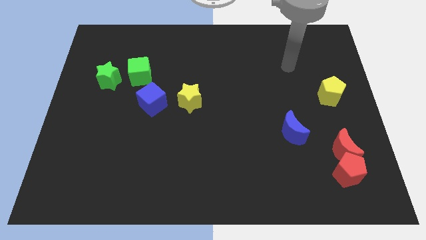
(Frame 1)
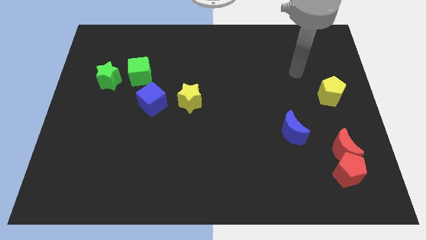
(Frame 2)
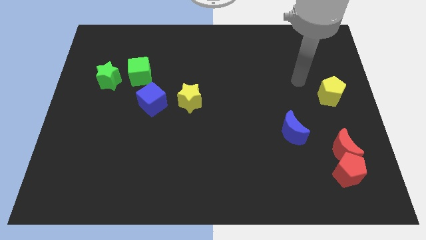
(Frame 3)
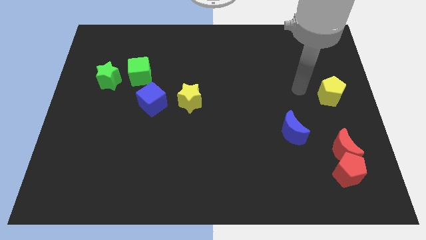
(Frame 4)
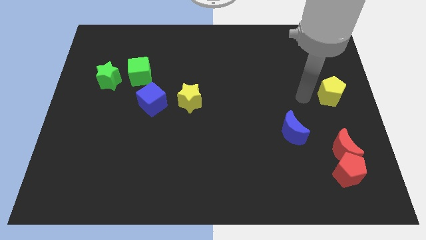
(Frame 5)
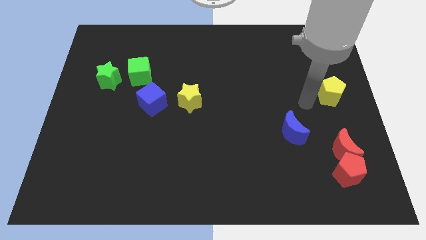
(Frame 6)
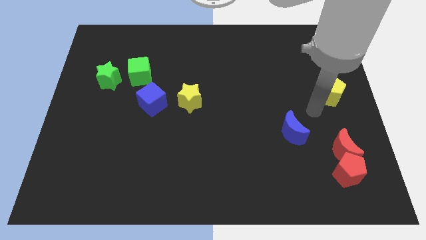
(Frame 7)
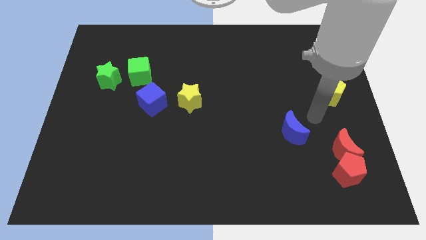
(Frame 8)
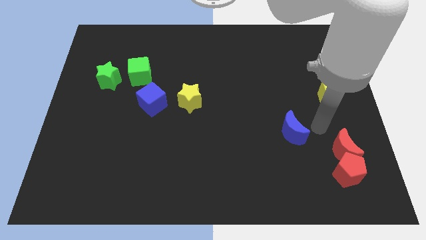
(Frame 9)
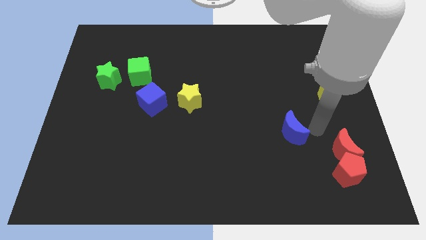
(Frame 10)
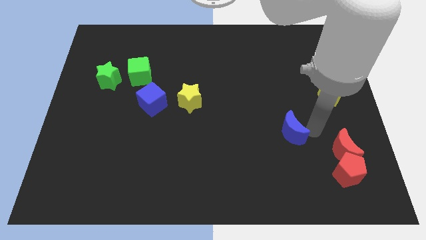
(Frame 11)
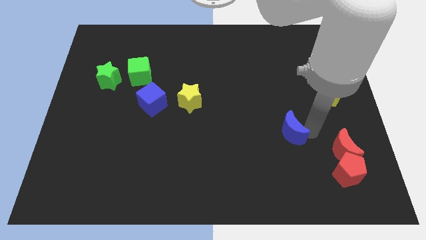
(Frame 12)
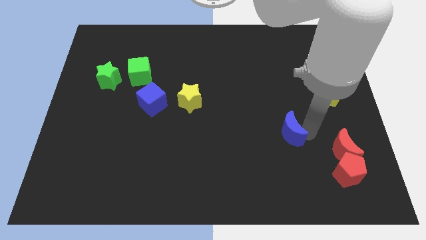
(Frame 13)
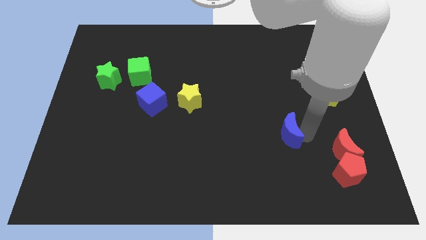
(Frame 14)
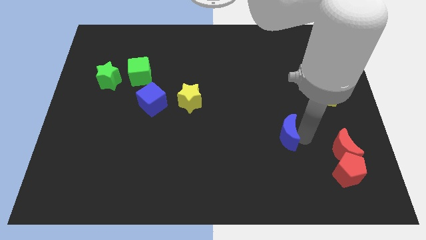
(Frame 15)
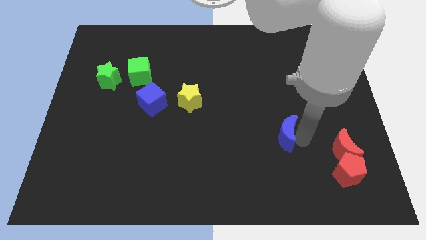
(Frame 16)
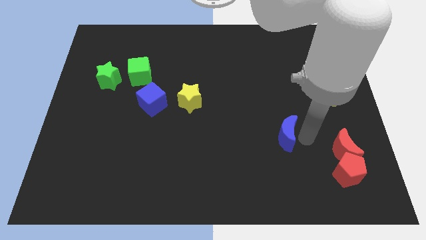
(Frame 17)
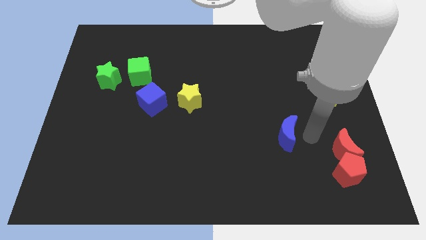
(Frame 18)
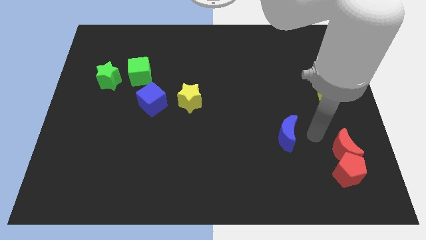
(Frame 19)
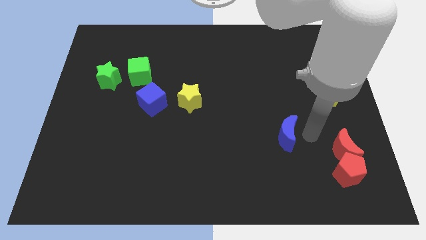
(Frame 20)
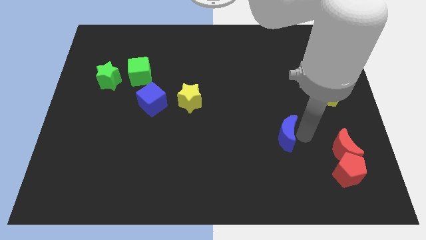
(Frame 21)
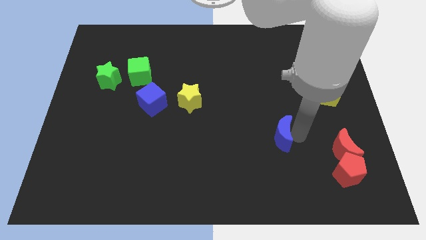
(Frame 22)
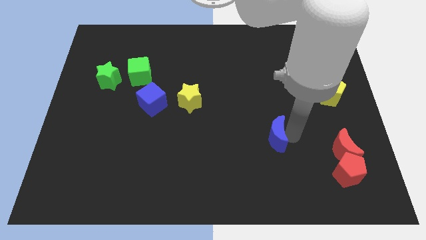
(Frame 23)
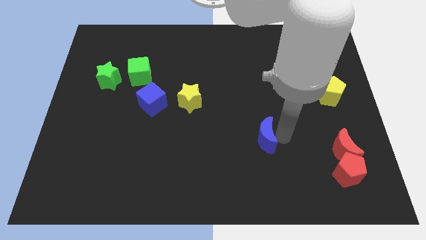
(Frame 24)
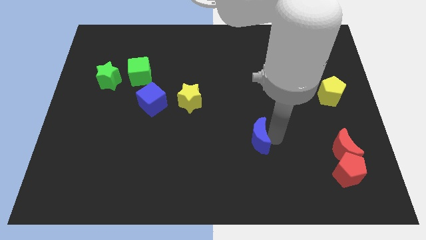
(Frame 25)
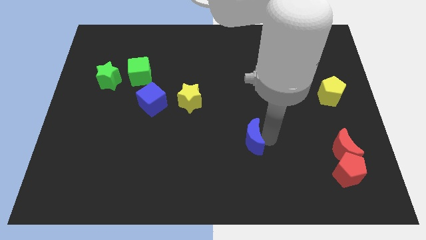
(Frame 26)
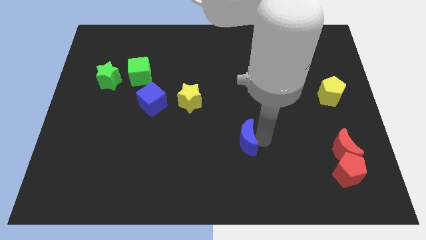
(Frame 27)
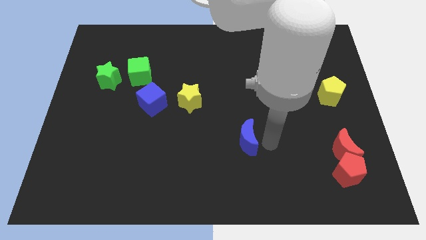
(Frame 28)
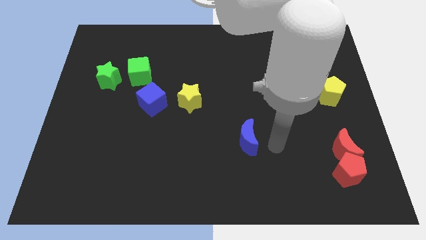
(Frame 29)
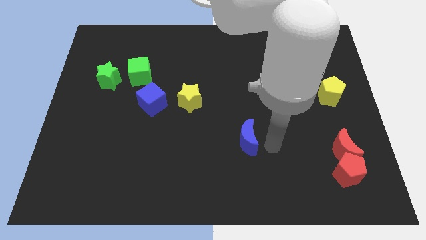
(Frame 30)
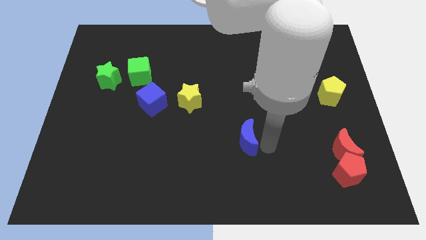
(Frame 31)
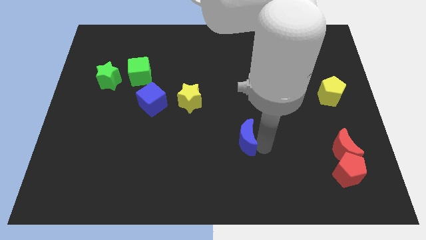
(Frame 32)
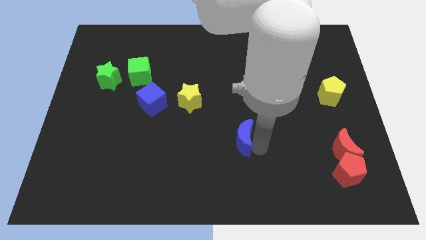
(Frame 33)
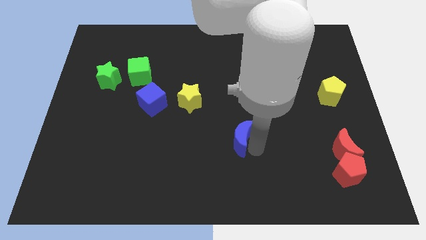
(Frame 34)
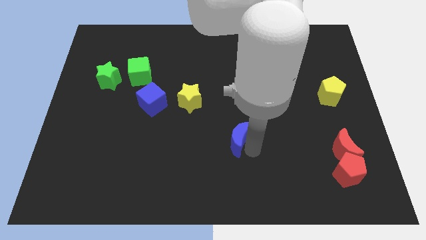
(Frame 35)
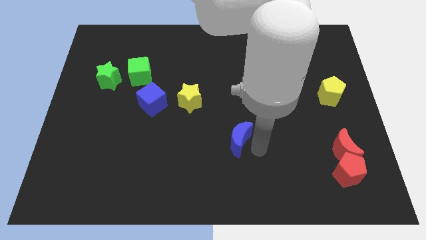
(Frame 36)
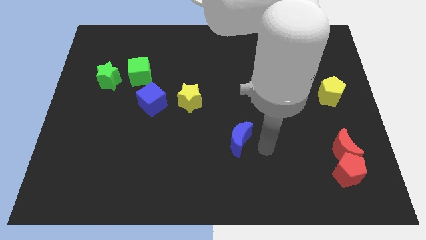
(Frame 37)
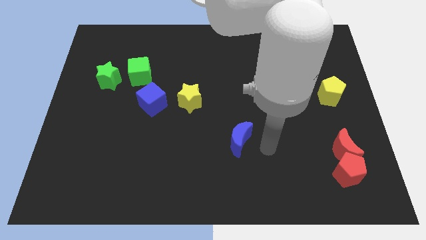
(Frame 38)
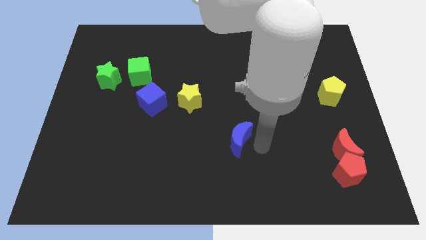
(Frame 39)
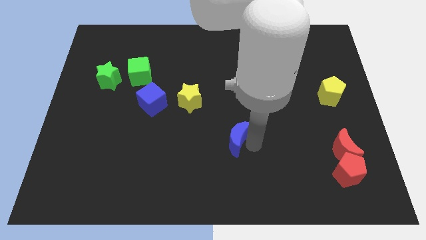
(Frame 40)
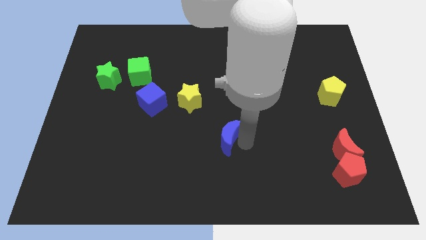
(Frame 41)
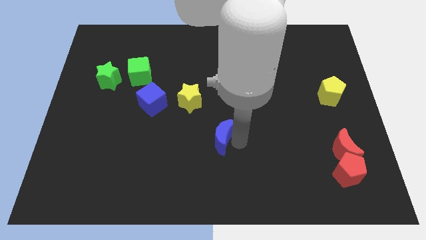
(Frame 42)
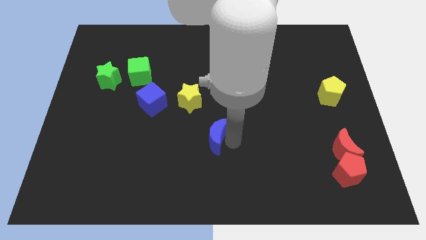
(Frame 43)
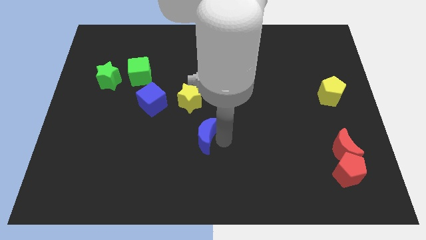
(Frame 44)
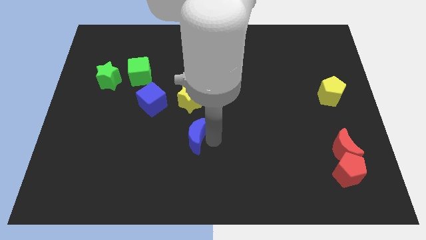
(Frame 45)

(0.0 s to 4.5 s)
move the blue moon left

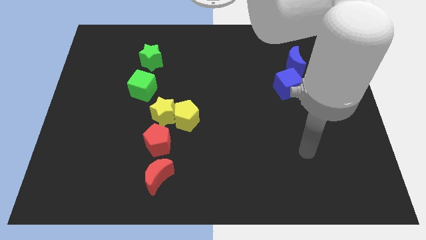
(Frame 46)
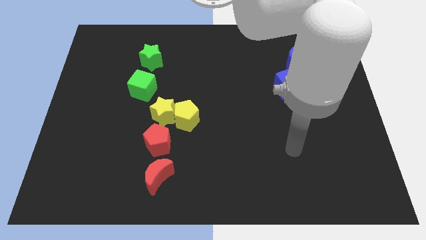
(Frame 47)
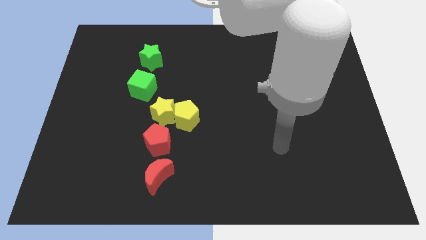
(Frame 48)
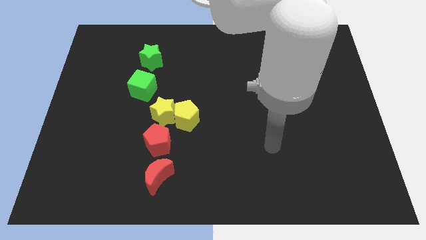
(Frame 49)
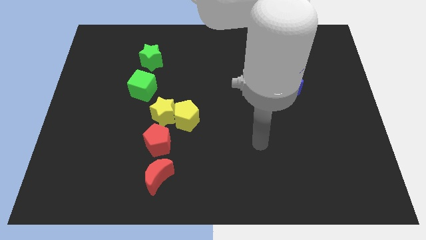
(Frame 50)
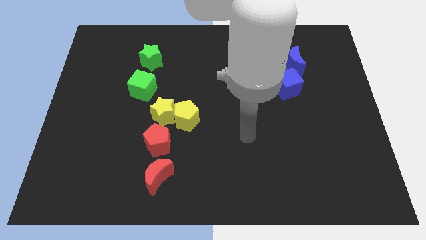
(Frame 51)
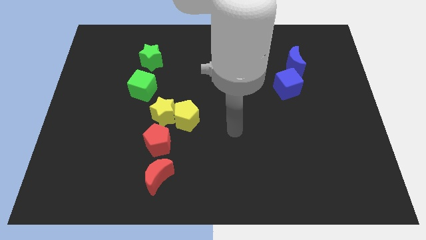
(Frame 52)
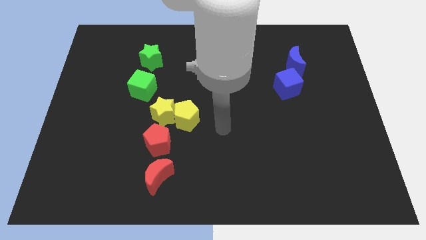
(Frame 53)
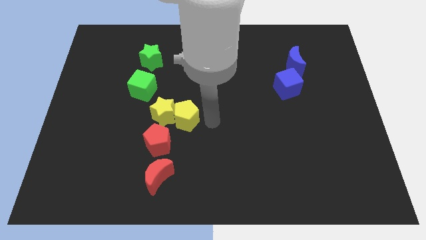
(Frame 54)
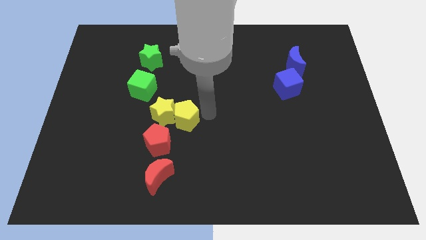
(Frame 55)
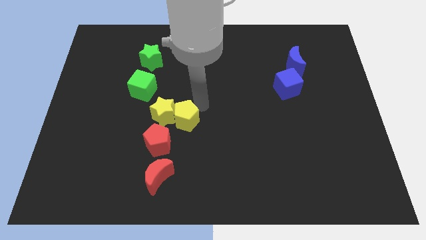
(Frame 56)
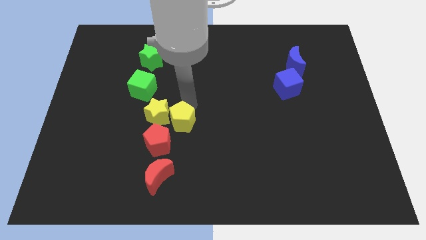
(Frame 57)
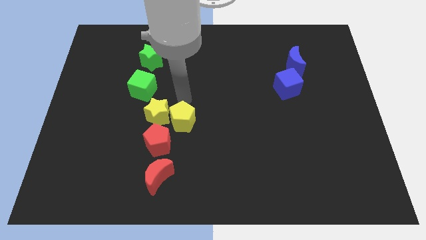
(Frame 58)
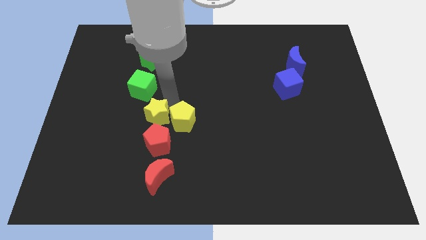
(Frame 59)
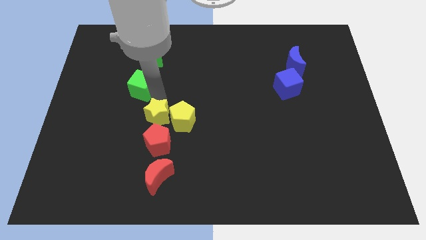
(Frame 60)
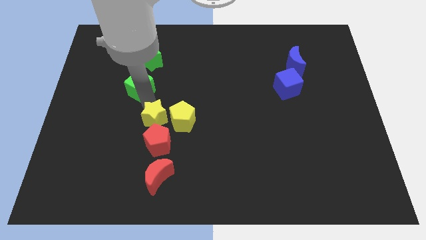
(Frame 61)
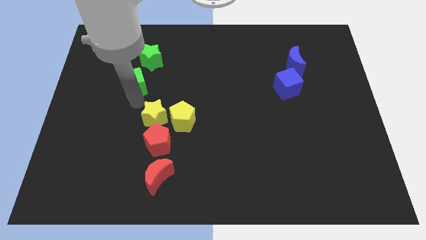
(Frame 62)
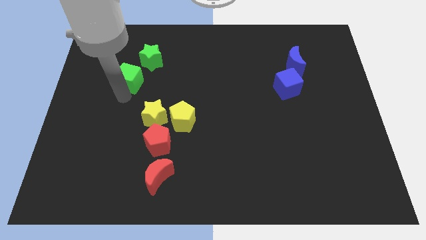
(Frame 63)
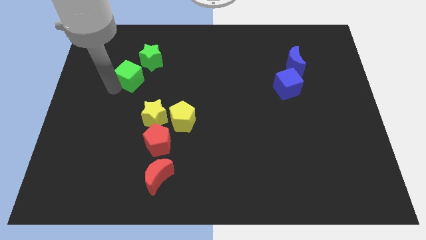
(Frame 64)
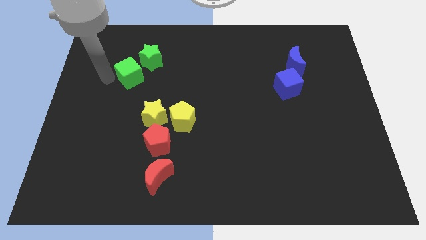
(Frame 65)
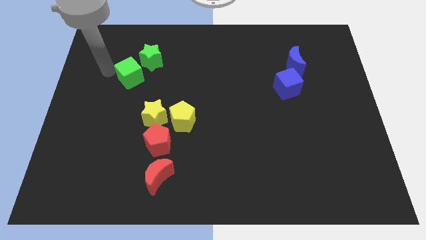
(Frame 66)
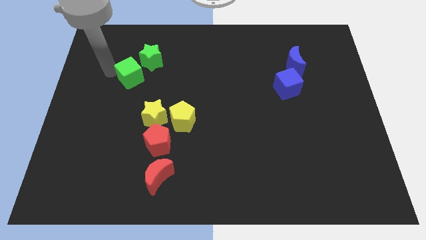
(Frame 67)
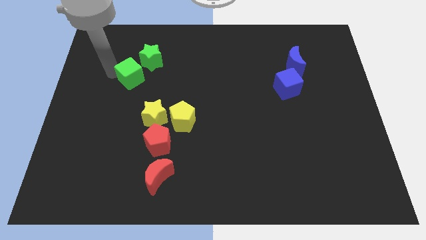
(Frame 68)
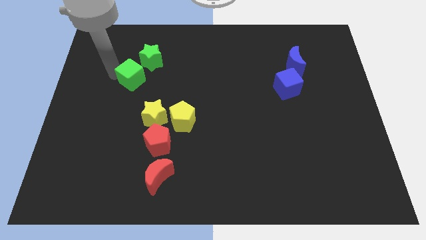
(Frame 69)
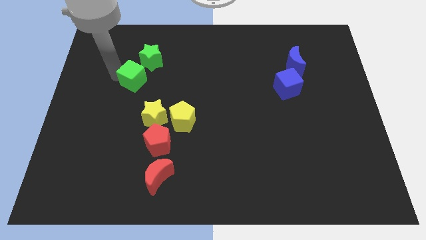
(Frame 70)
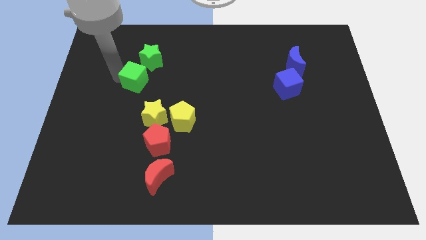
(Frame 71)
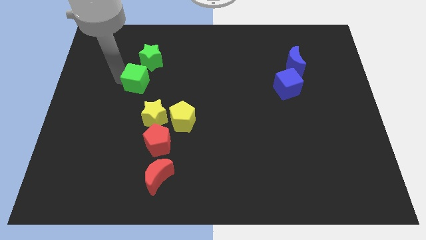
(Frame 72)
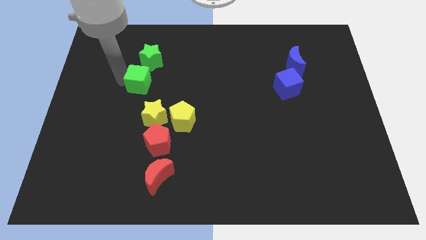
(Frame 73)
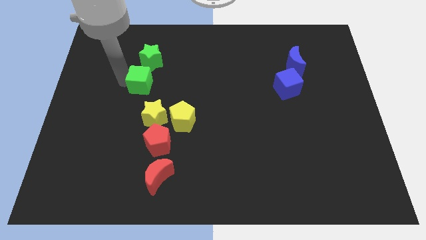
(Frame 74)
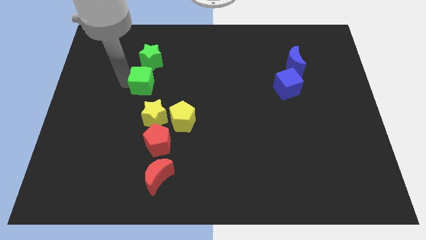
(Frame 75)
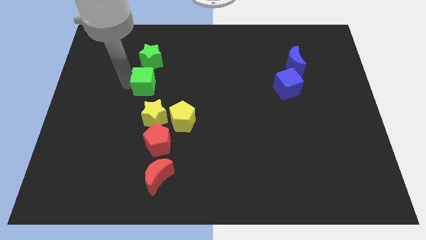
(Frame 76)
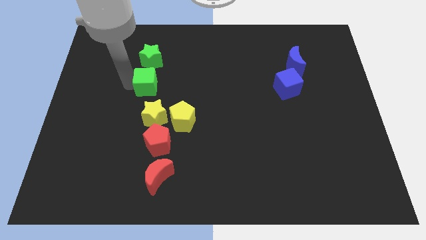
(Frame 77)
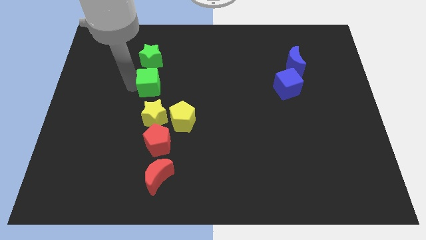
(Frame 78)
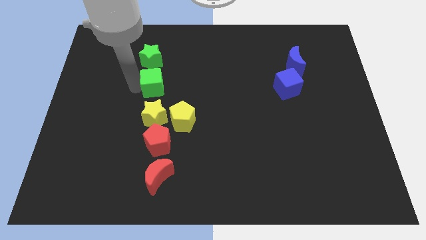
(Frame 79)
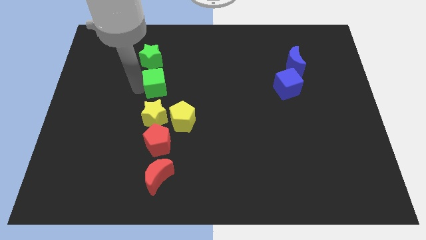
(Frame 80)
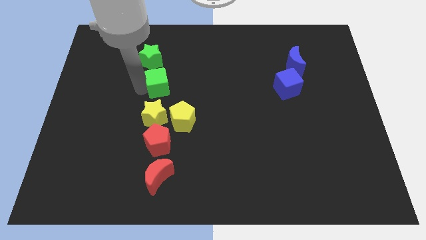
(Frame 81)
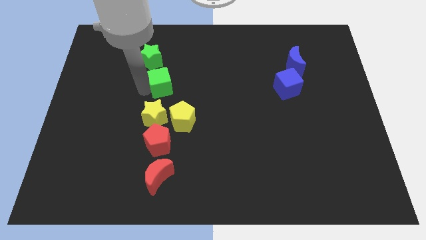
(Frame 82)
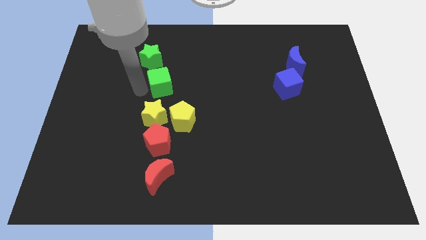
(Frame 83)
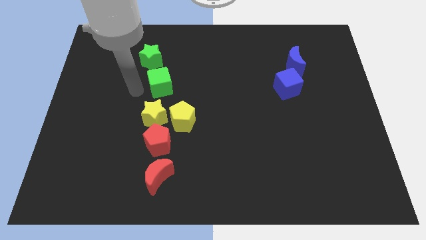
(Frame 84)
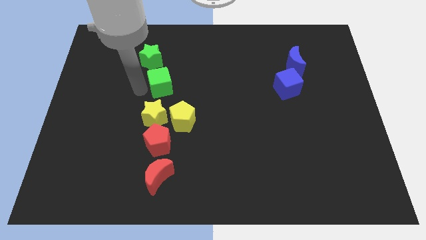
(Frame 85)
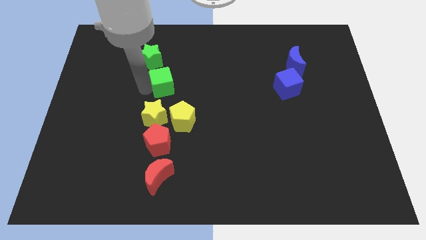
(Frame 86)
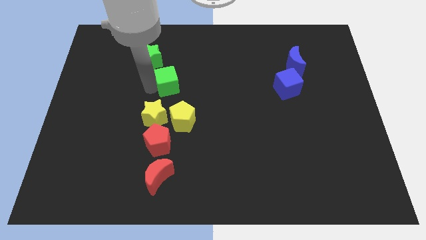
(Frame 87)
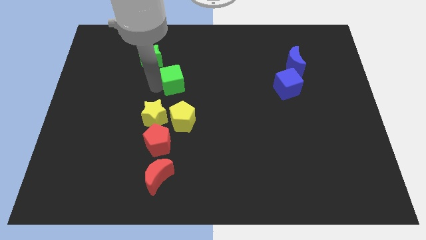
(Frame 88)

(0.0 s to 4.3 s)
move the green cube somewhat to the right
